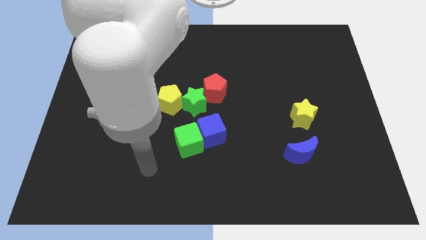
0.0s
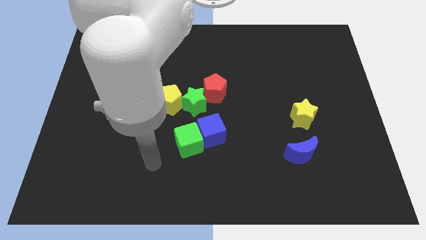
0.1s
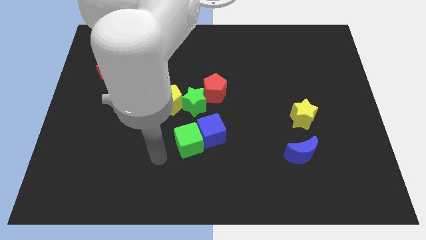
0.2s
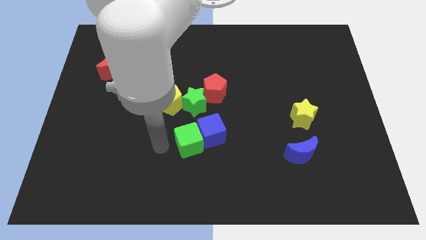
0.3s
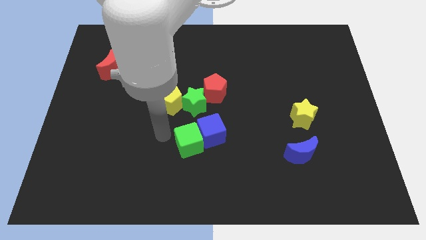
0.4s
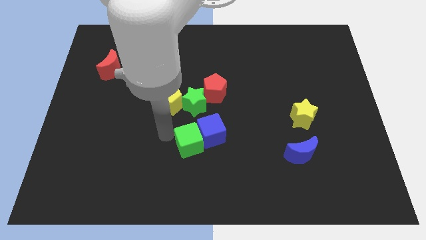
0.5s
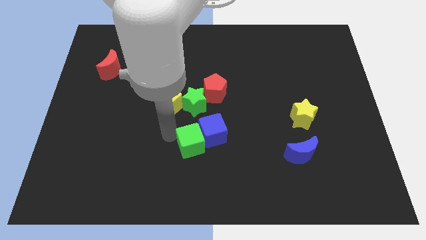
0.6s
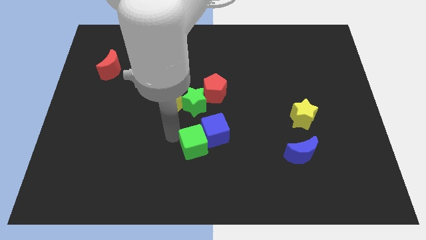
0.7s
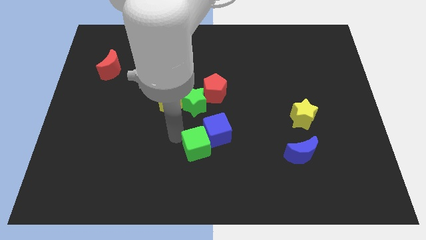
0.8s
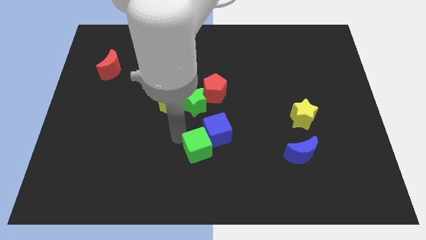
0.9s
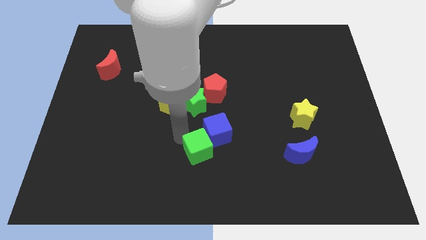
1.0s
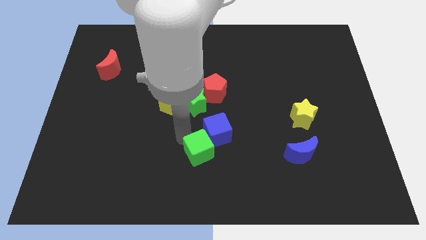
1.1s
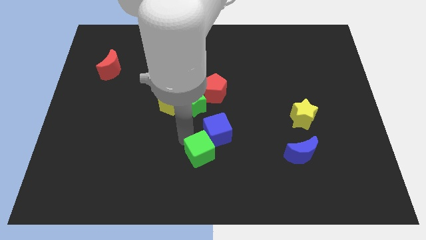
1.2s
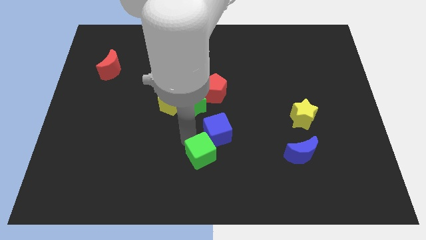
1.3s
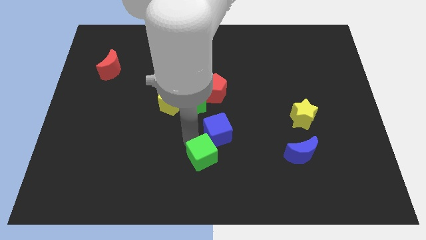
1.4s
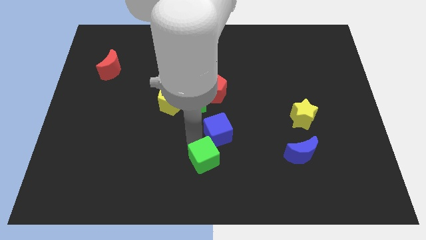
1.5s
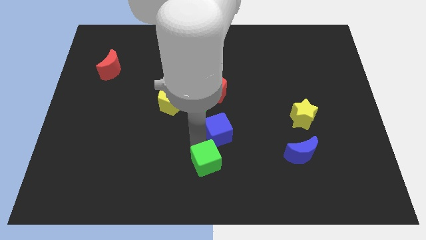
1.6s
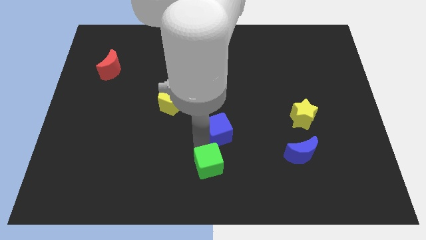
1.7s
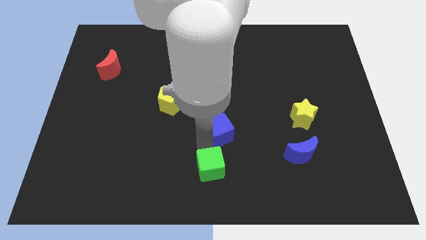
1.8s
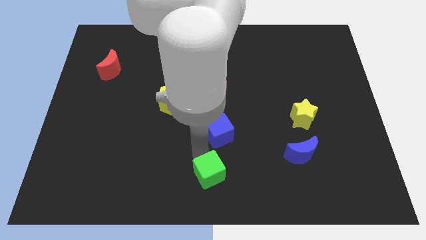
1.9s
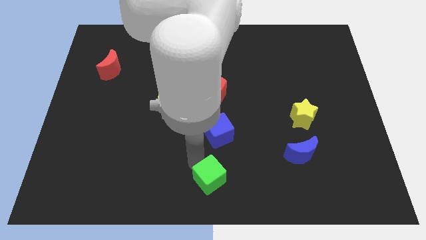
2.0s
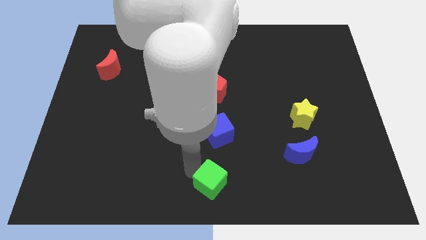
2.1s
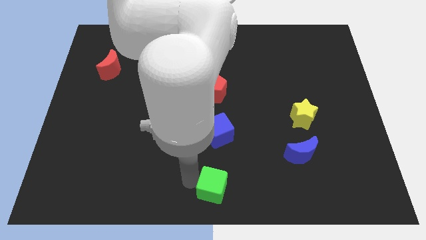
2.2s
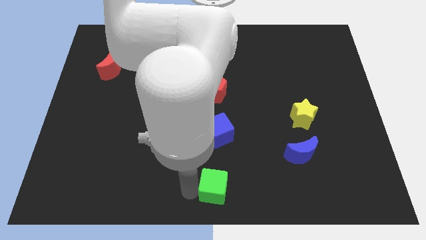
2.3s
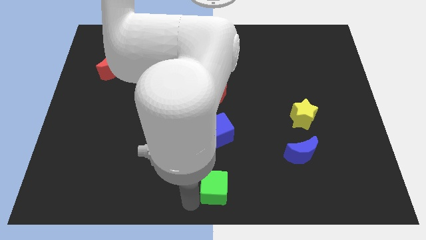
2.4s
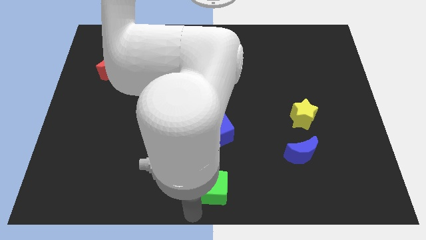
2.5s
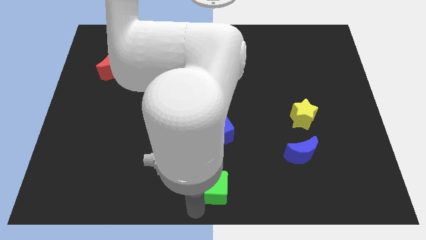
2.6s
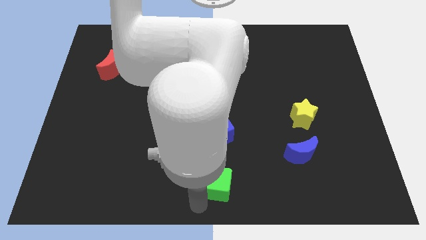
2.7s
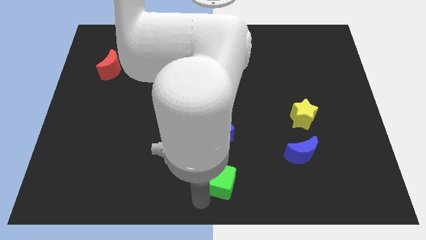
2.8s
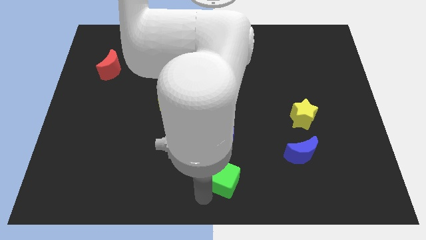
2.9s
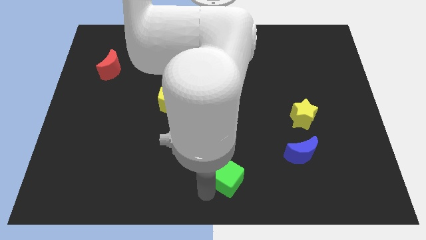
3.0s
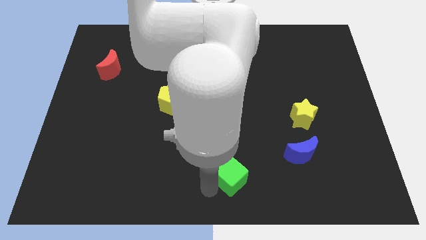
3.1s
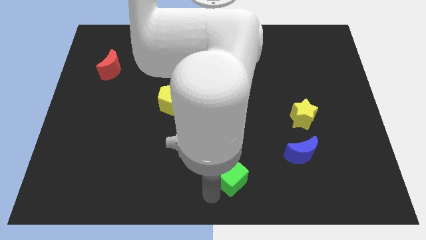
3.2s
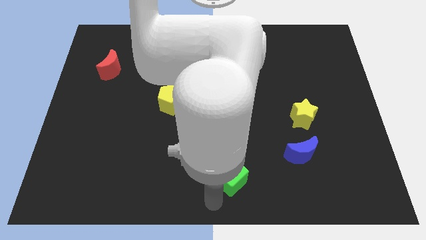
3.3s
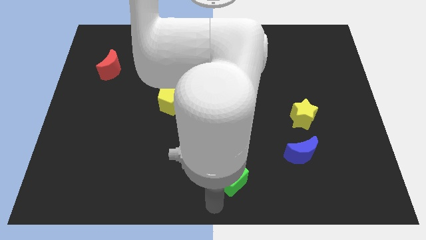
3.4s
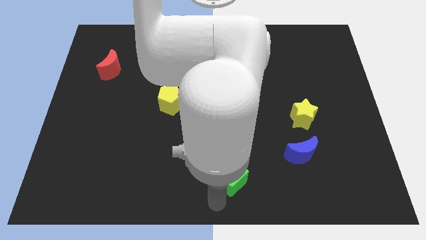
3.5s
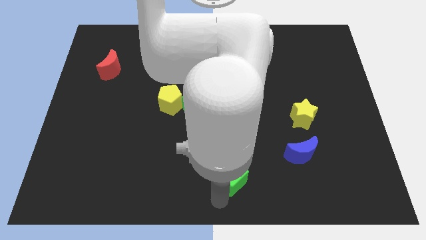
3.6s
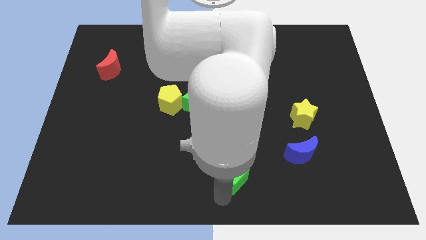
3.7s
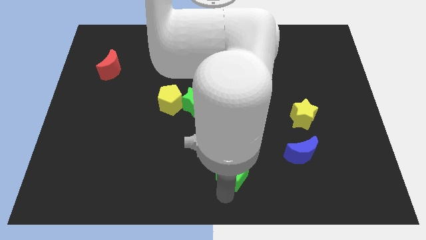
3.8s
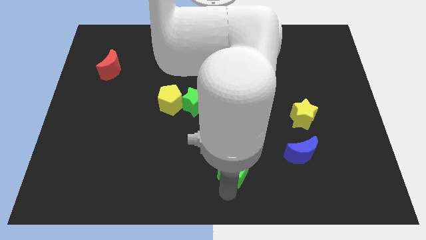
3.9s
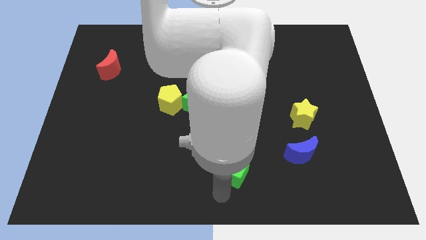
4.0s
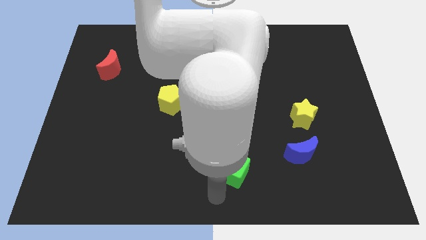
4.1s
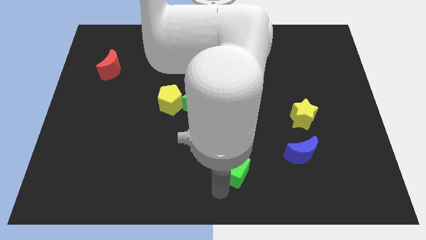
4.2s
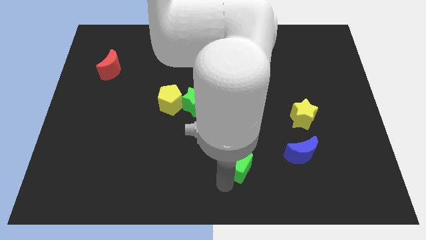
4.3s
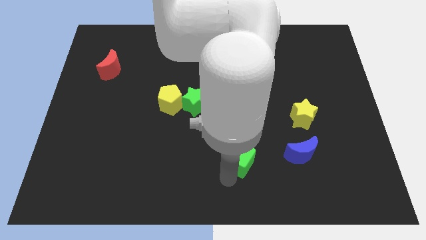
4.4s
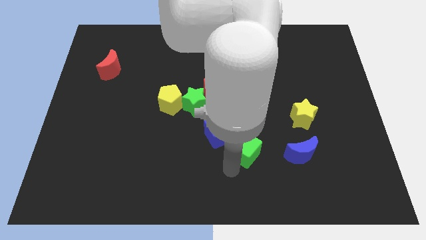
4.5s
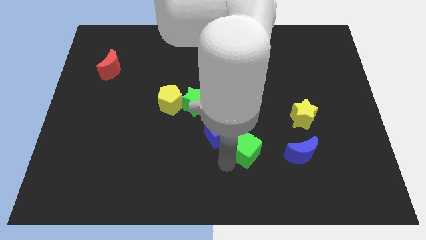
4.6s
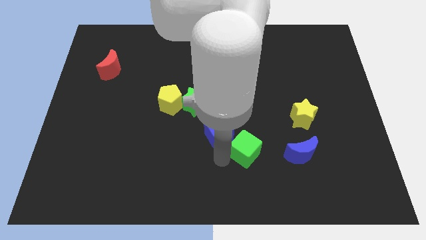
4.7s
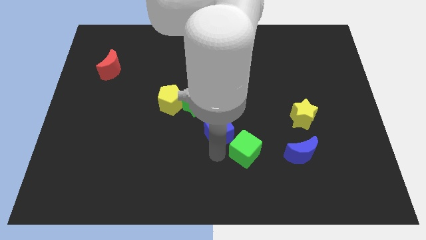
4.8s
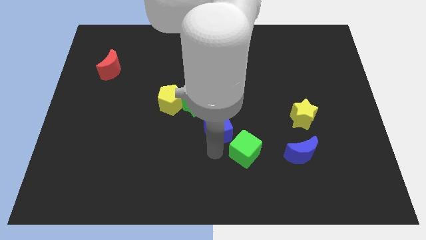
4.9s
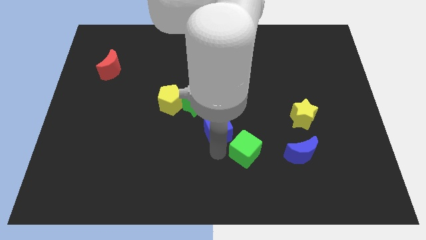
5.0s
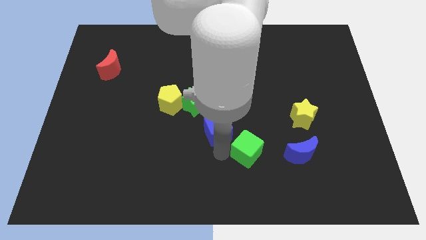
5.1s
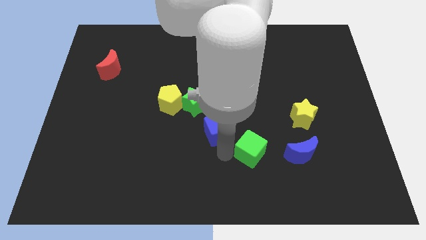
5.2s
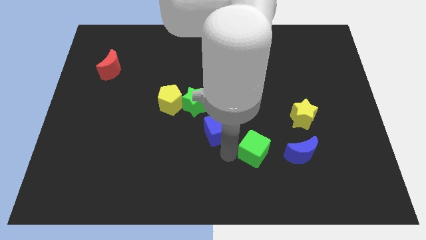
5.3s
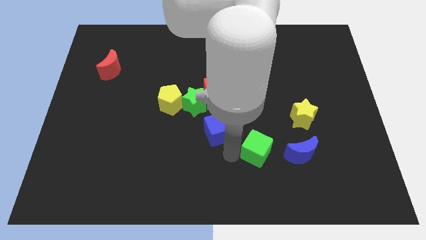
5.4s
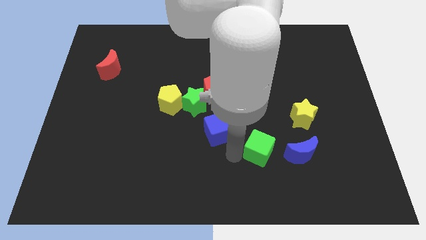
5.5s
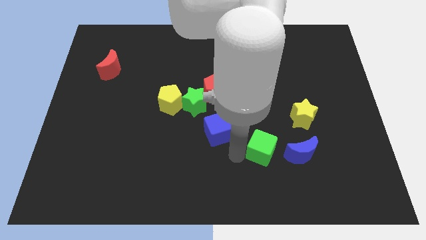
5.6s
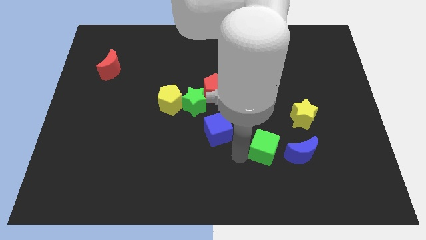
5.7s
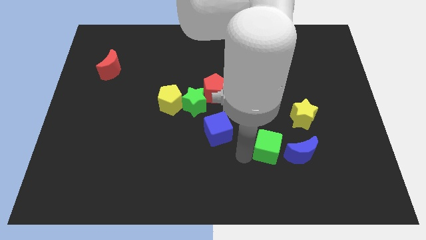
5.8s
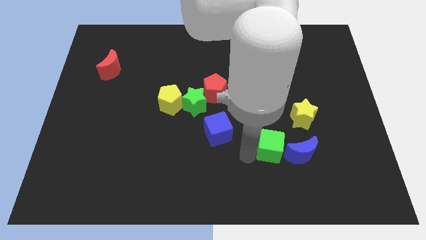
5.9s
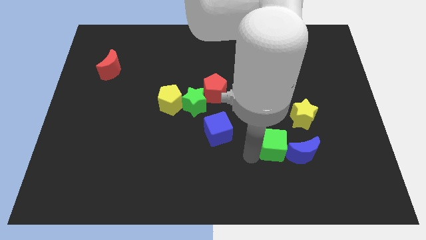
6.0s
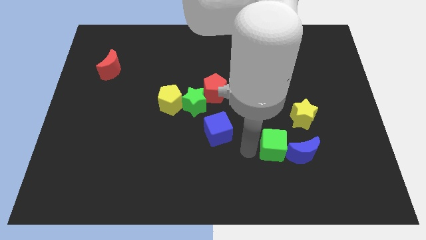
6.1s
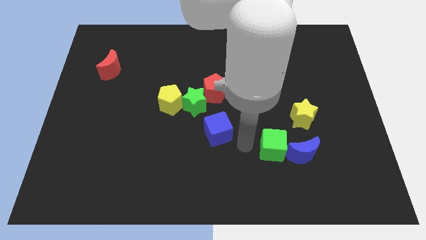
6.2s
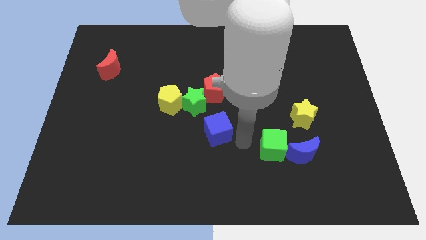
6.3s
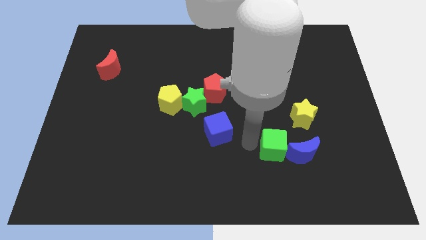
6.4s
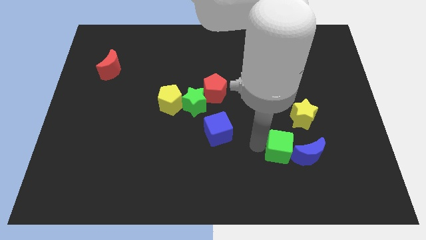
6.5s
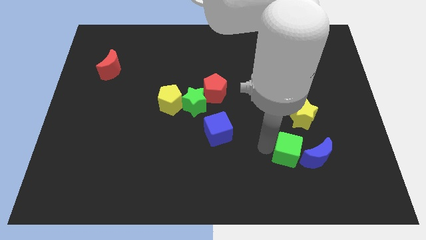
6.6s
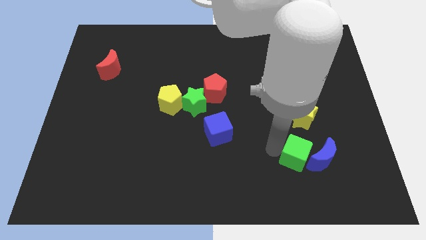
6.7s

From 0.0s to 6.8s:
slide the green cube close to the blue moon

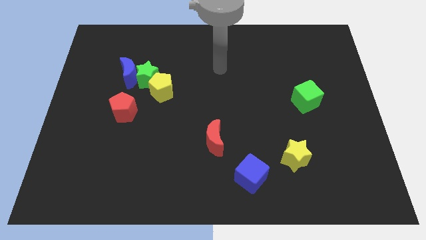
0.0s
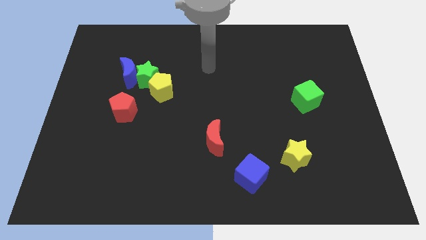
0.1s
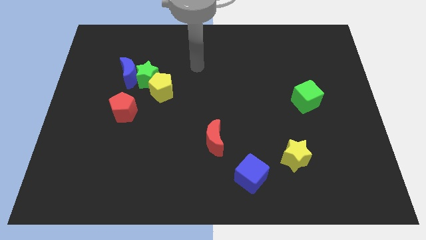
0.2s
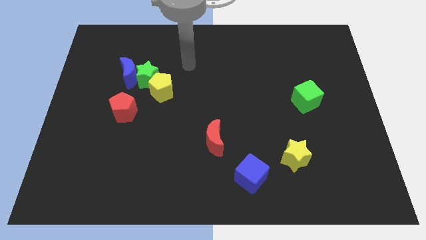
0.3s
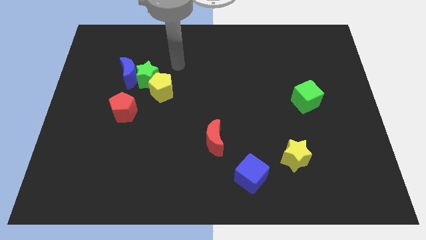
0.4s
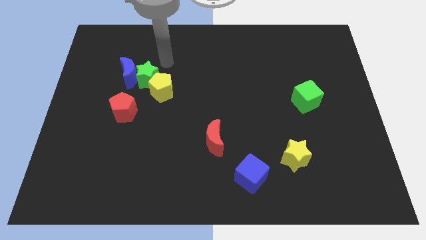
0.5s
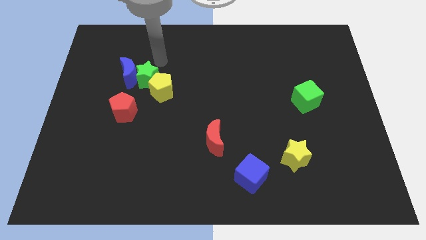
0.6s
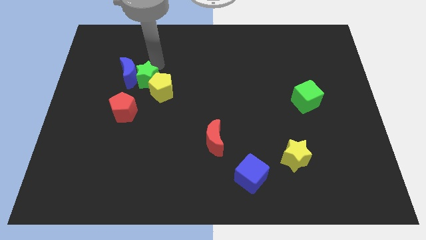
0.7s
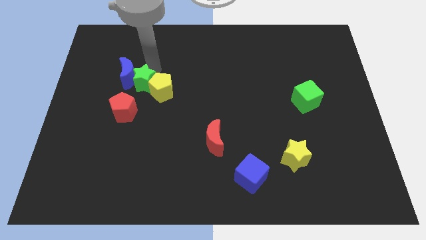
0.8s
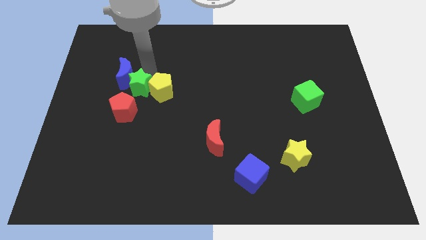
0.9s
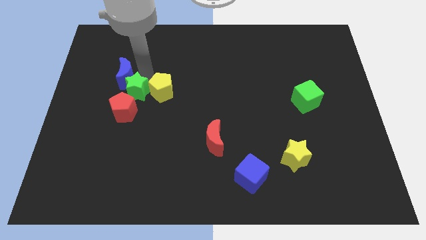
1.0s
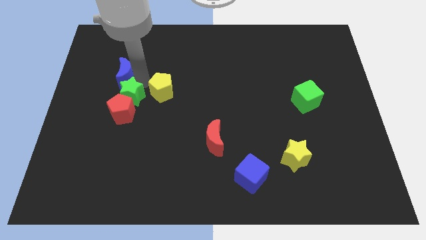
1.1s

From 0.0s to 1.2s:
move the green star close to the red pentagon
